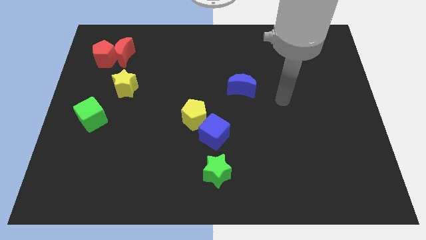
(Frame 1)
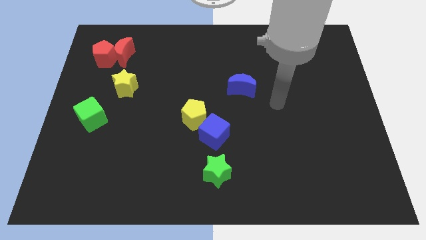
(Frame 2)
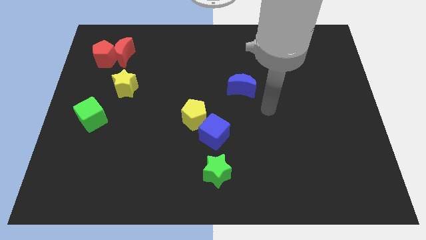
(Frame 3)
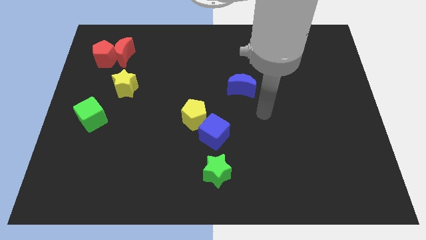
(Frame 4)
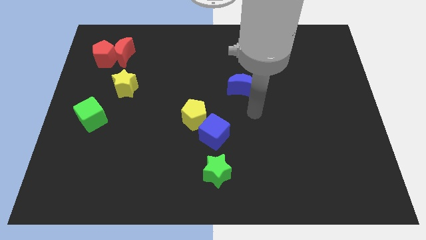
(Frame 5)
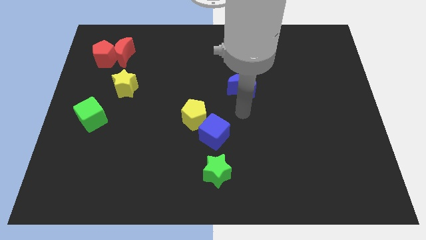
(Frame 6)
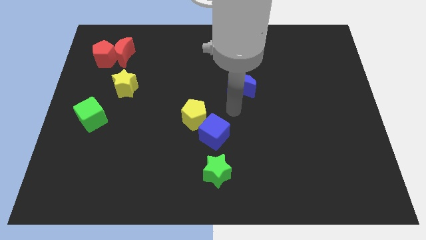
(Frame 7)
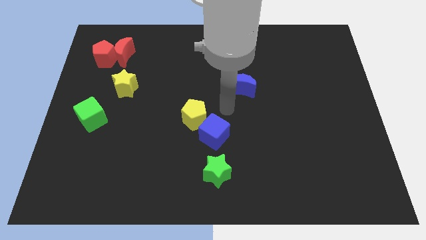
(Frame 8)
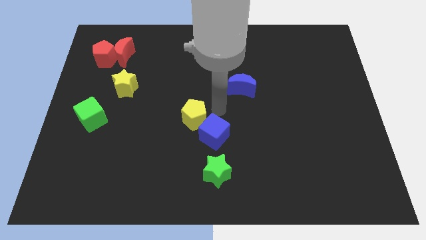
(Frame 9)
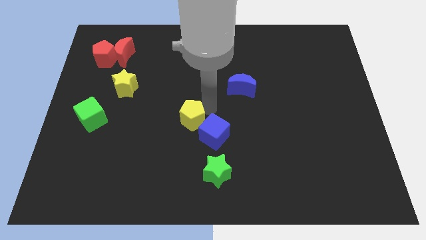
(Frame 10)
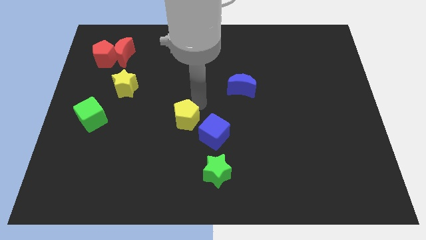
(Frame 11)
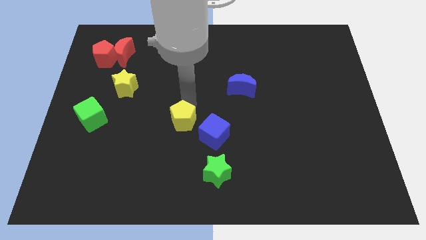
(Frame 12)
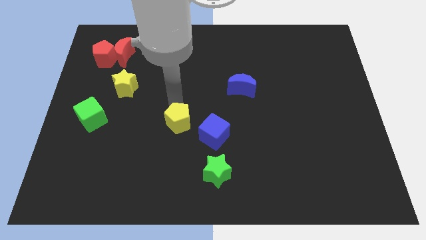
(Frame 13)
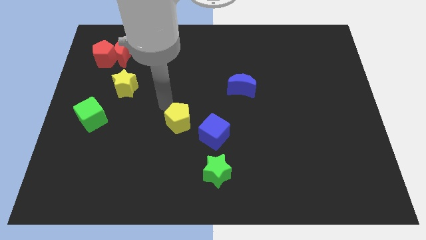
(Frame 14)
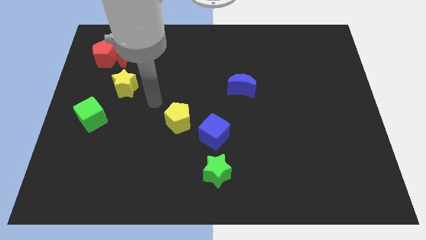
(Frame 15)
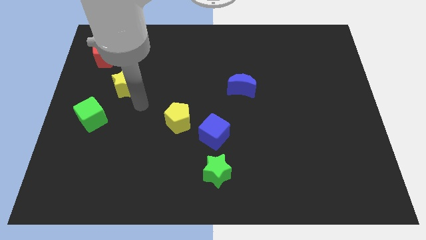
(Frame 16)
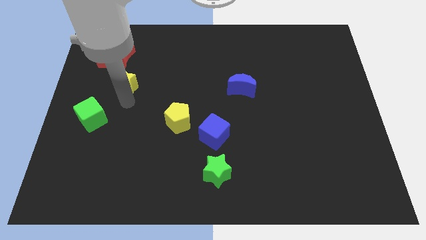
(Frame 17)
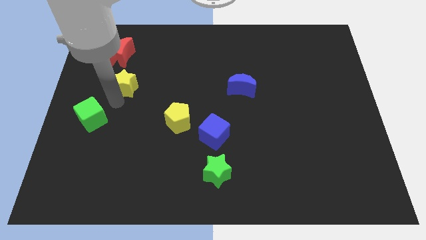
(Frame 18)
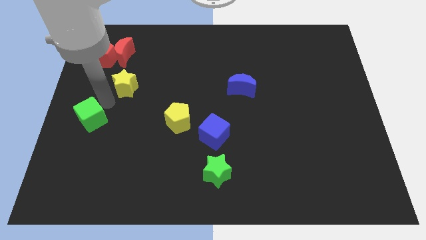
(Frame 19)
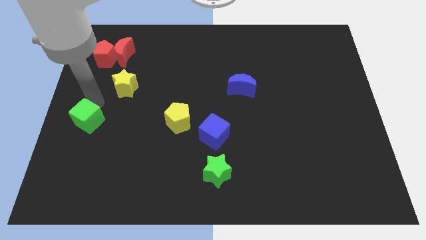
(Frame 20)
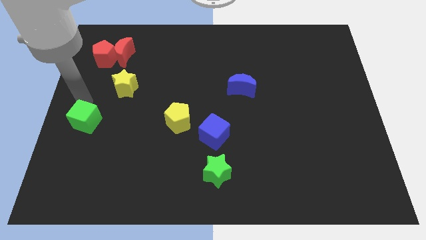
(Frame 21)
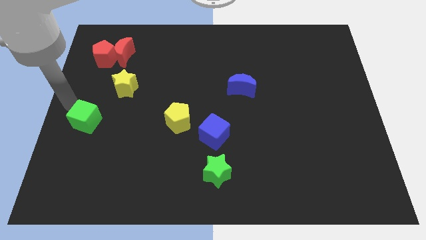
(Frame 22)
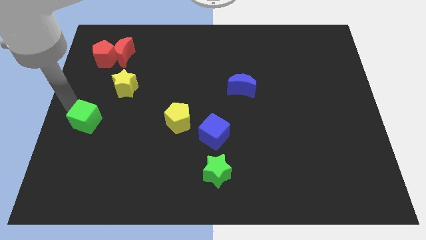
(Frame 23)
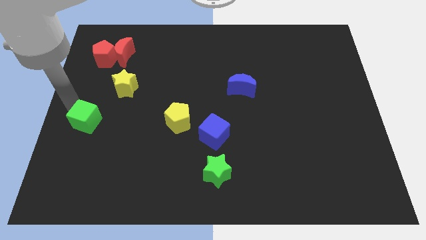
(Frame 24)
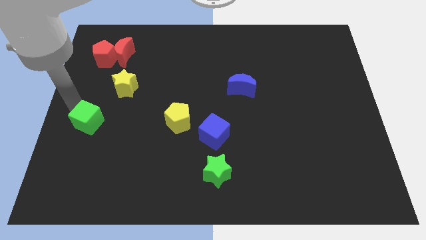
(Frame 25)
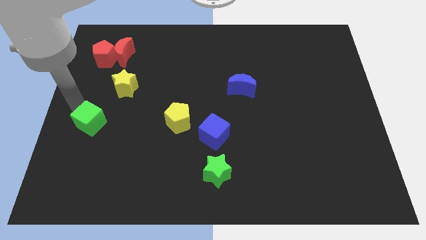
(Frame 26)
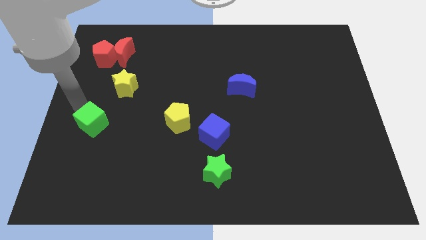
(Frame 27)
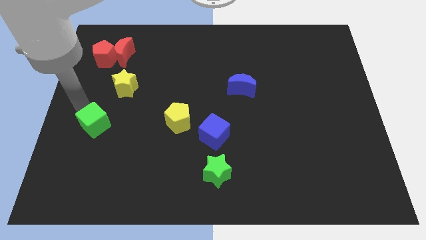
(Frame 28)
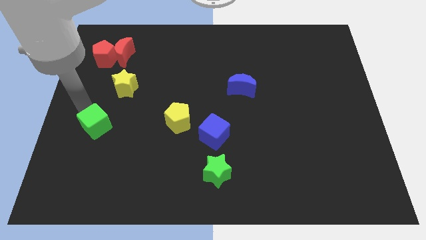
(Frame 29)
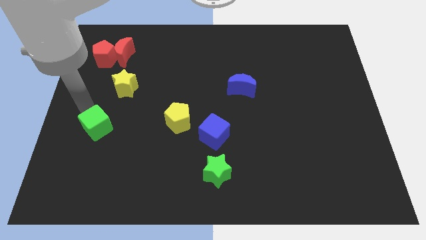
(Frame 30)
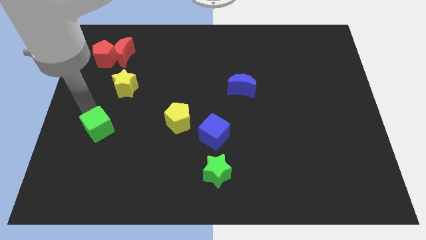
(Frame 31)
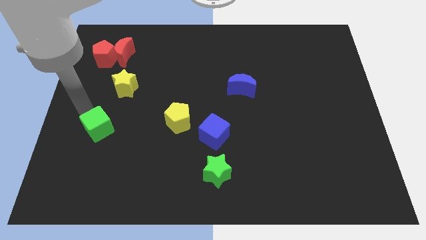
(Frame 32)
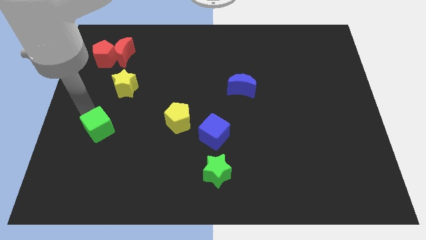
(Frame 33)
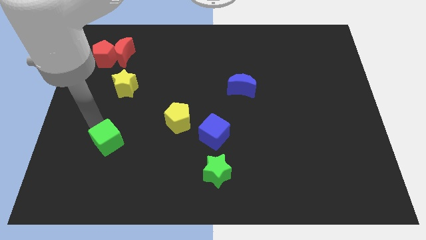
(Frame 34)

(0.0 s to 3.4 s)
move the green cube a little downwards and right

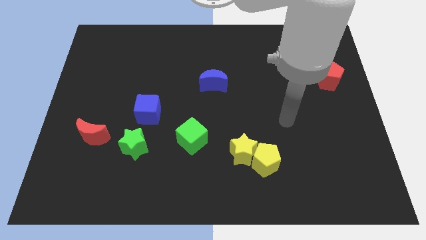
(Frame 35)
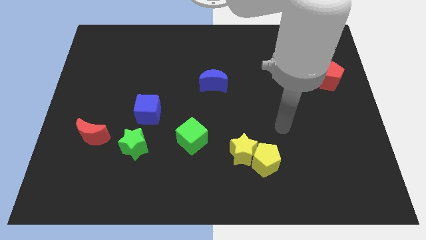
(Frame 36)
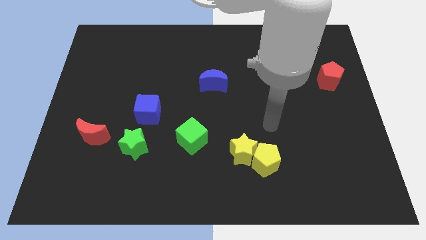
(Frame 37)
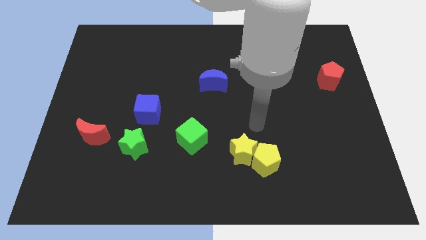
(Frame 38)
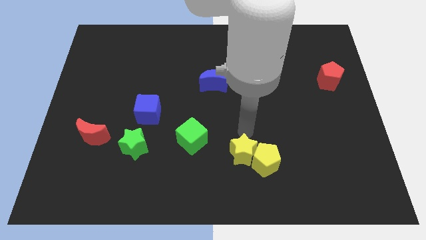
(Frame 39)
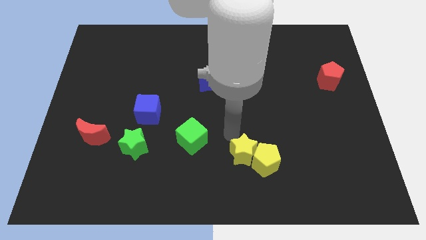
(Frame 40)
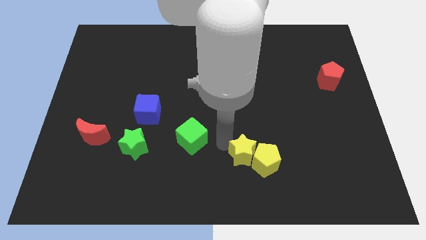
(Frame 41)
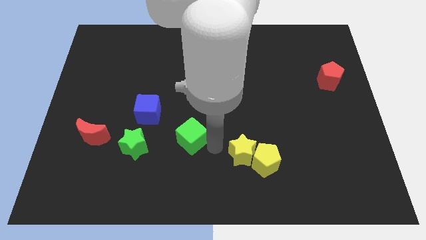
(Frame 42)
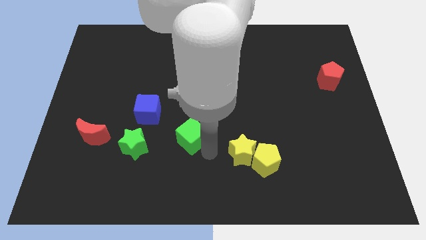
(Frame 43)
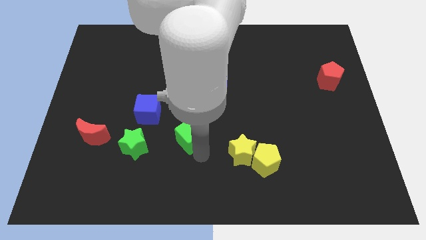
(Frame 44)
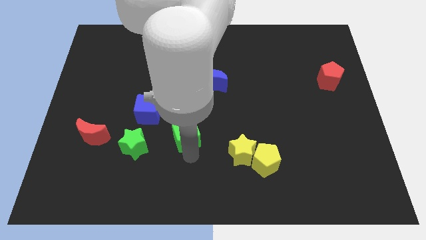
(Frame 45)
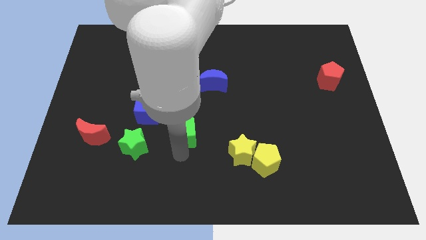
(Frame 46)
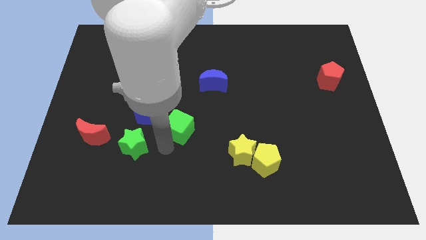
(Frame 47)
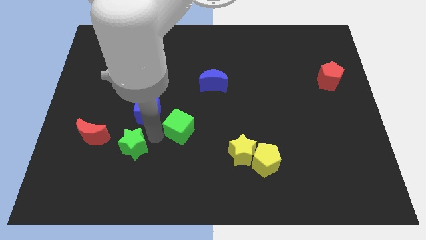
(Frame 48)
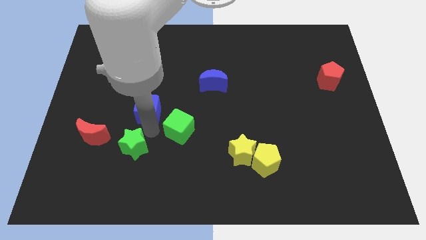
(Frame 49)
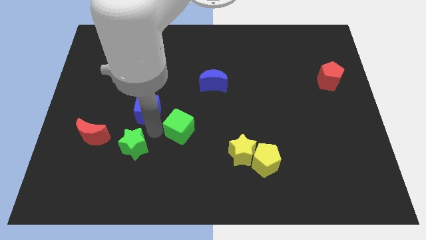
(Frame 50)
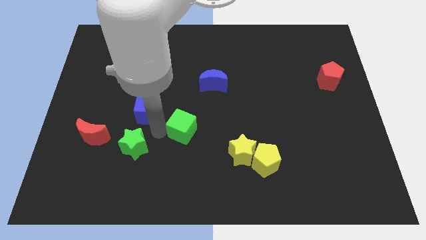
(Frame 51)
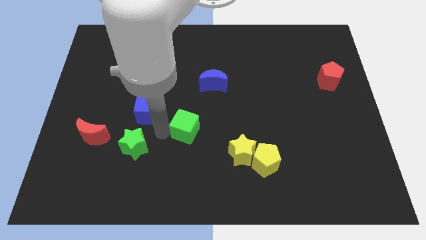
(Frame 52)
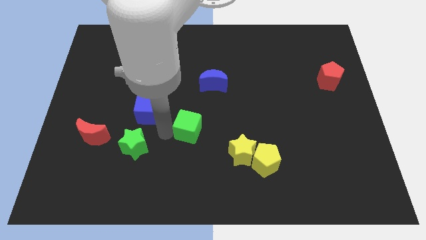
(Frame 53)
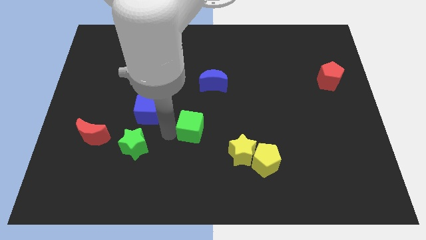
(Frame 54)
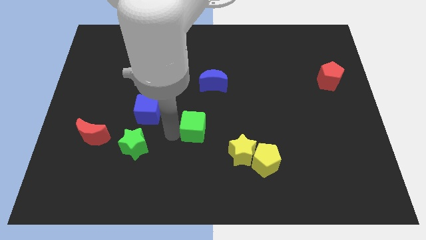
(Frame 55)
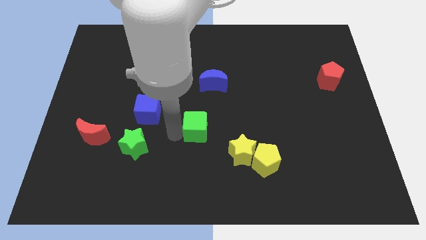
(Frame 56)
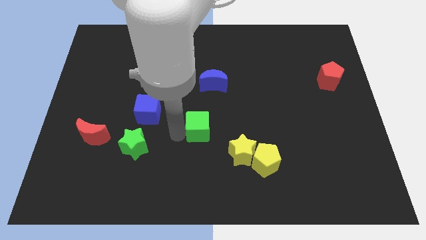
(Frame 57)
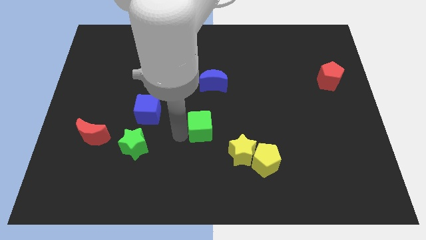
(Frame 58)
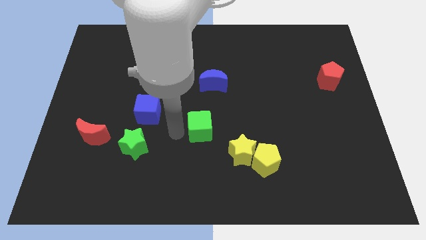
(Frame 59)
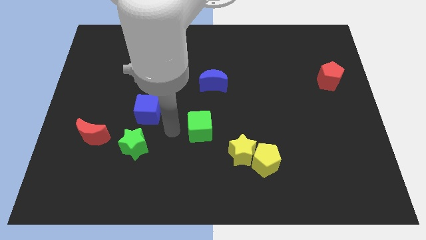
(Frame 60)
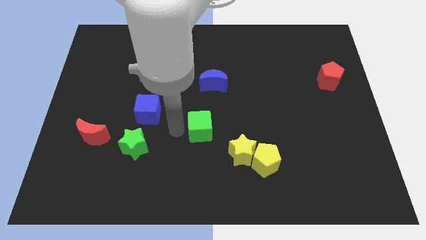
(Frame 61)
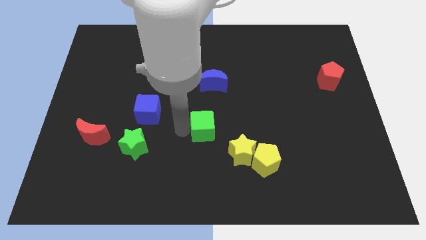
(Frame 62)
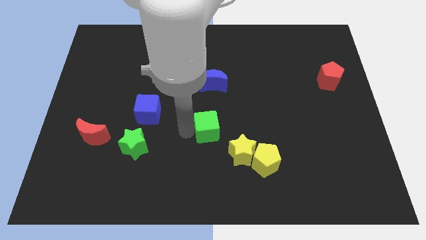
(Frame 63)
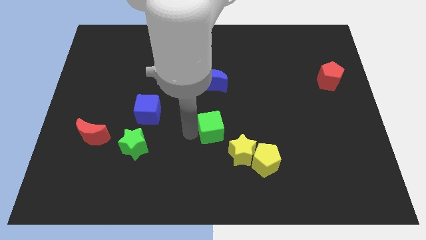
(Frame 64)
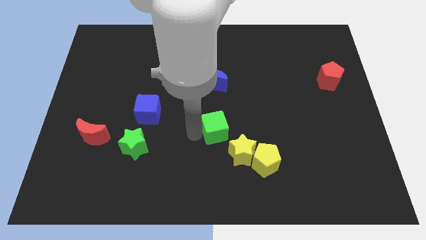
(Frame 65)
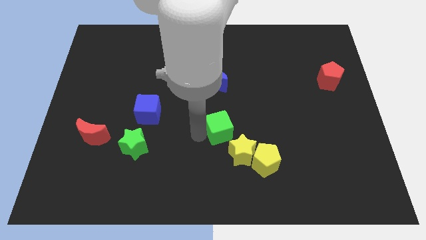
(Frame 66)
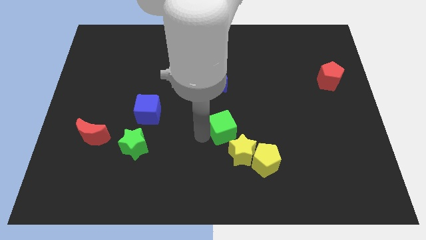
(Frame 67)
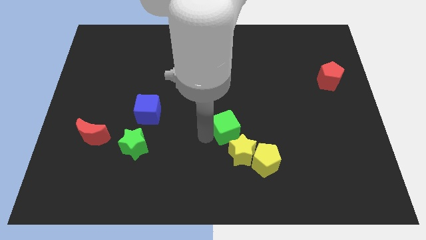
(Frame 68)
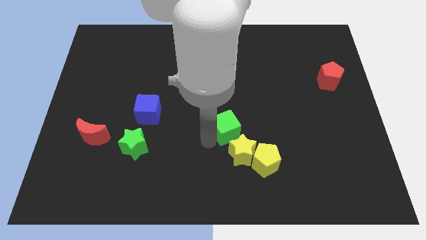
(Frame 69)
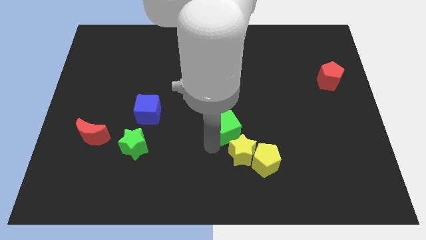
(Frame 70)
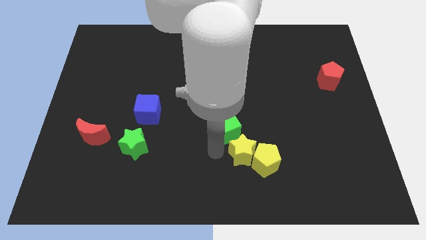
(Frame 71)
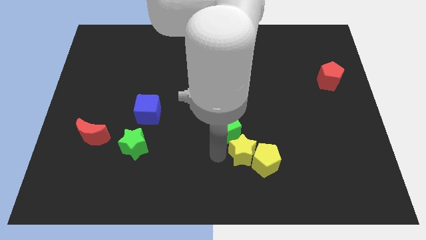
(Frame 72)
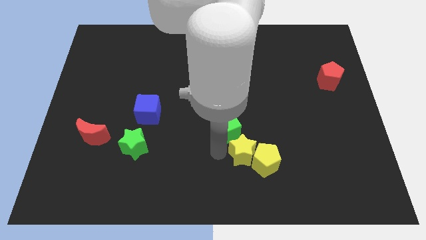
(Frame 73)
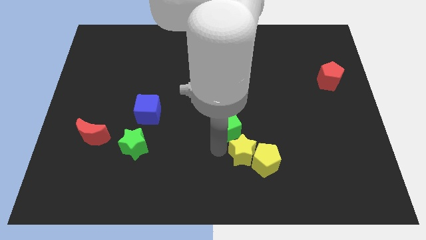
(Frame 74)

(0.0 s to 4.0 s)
push the green cube diagonally up and right a little

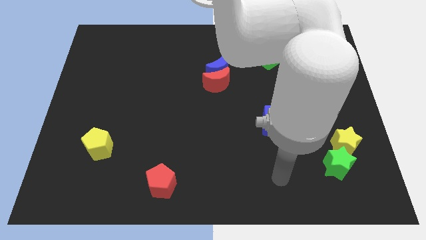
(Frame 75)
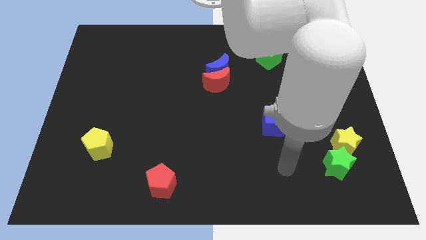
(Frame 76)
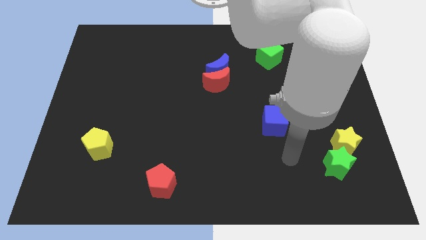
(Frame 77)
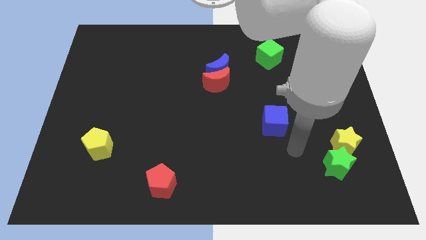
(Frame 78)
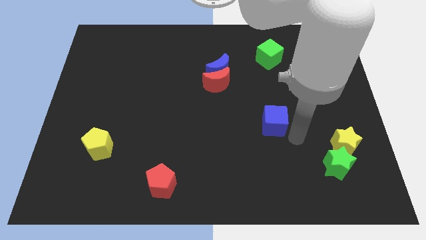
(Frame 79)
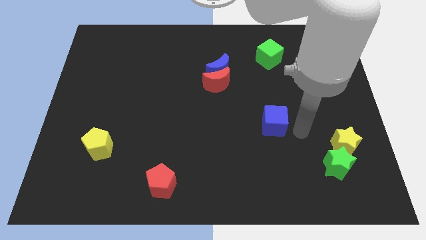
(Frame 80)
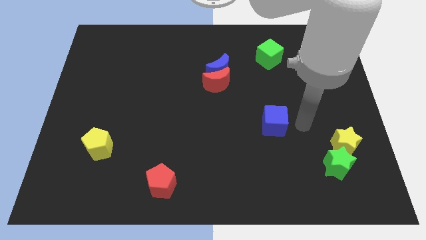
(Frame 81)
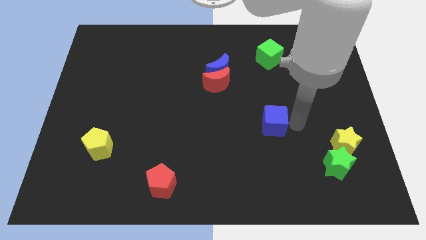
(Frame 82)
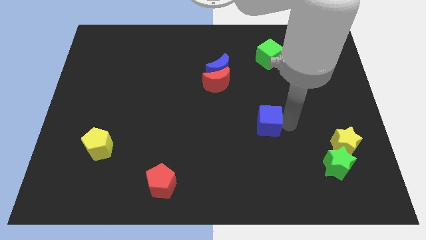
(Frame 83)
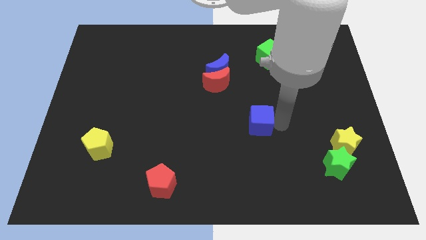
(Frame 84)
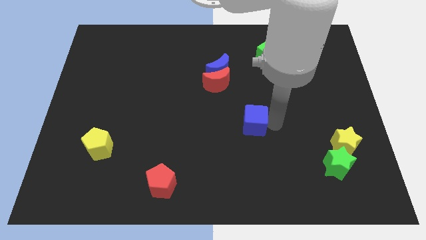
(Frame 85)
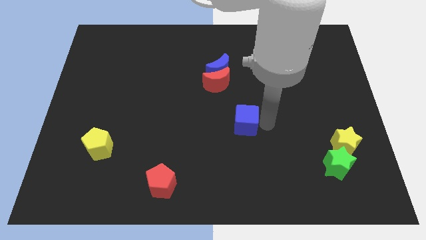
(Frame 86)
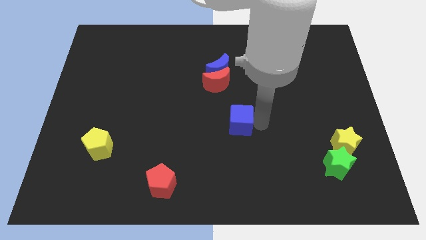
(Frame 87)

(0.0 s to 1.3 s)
push the blue cube to the left somewhat
